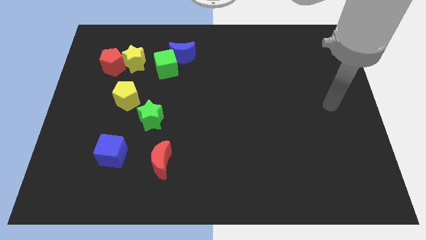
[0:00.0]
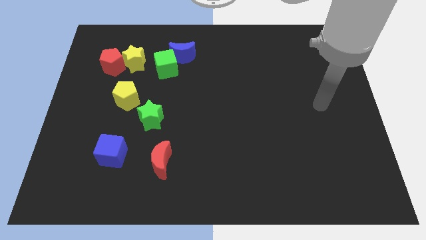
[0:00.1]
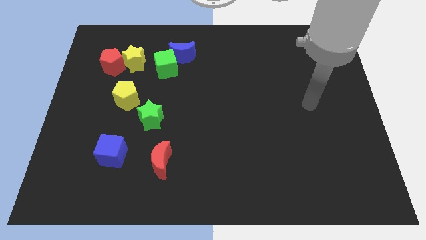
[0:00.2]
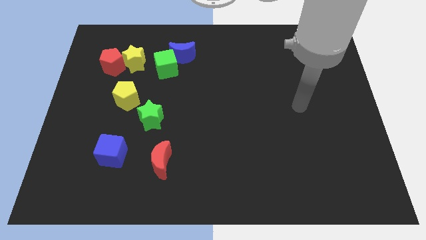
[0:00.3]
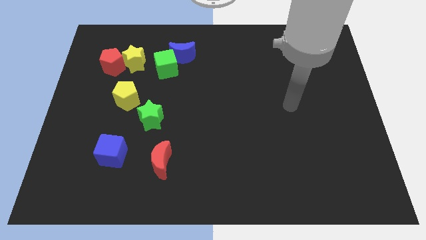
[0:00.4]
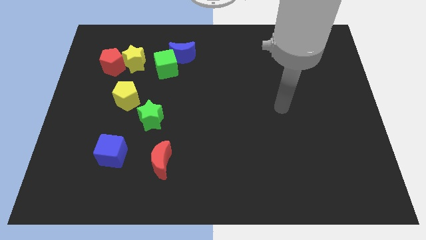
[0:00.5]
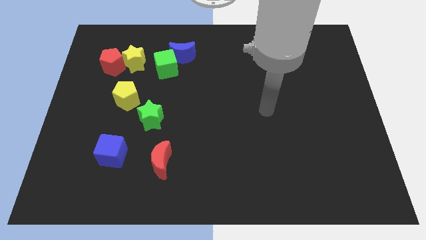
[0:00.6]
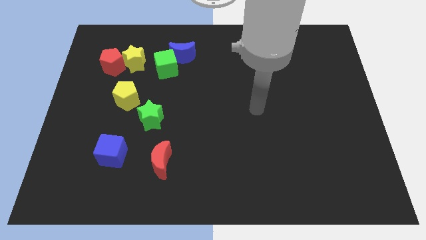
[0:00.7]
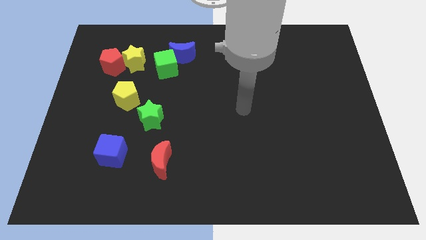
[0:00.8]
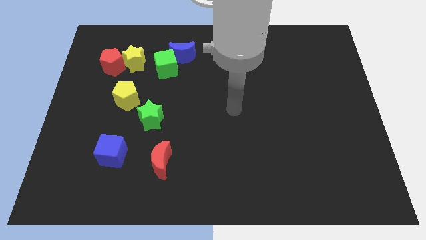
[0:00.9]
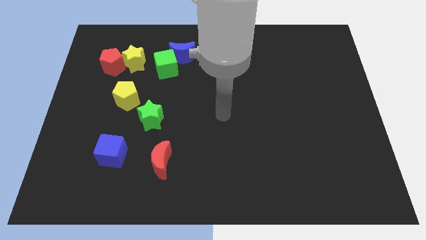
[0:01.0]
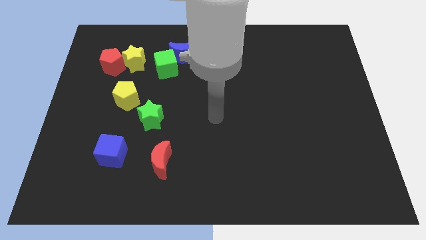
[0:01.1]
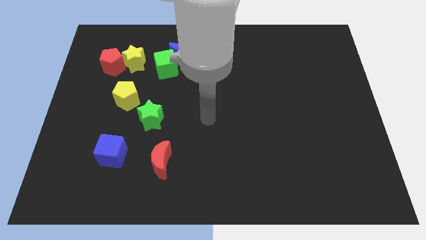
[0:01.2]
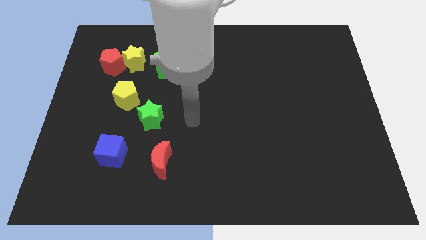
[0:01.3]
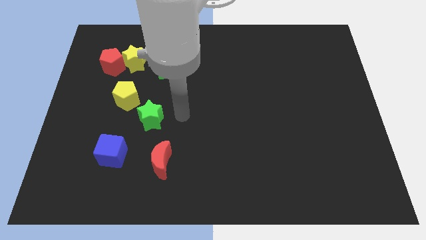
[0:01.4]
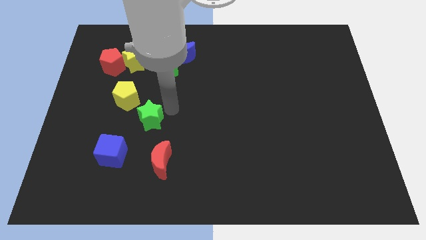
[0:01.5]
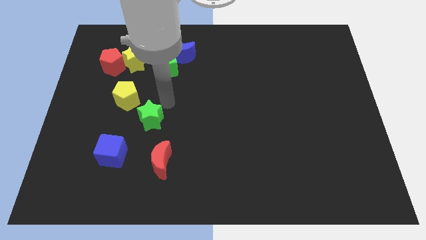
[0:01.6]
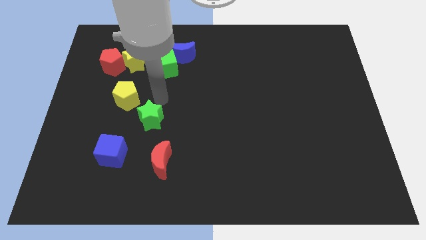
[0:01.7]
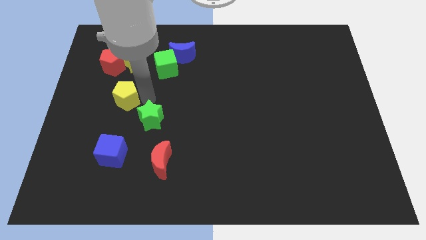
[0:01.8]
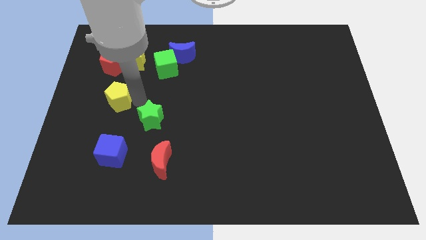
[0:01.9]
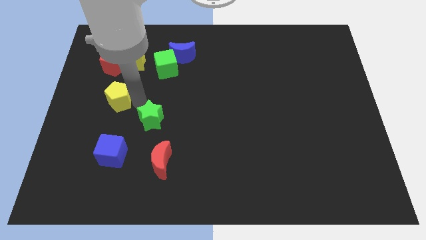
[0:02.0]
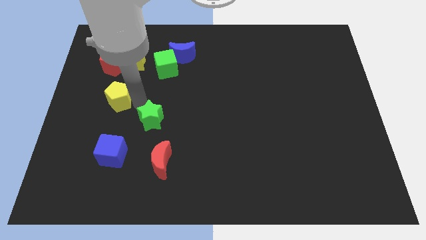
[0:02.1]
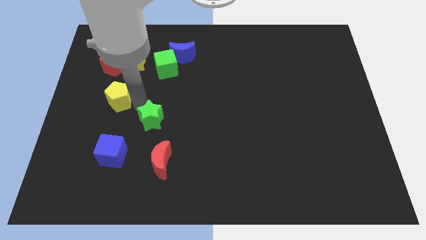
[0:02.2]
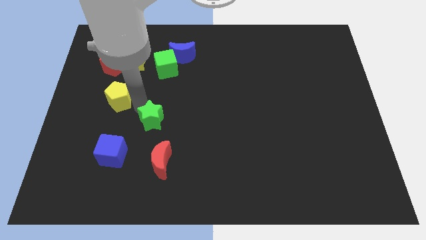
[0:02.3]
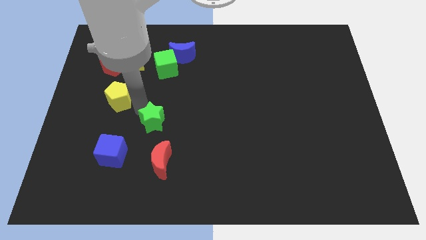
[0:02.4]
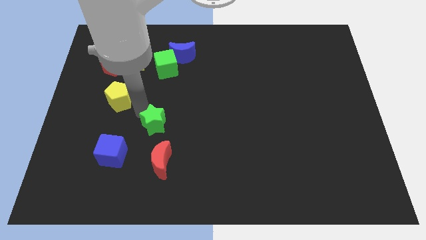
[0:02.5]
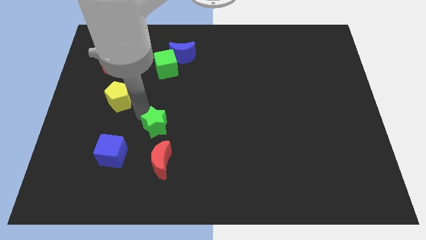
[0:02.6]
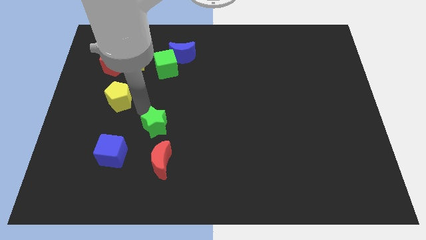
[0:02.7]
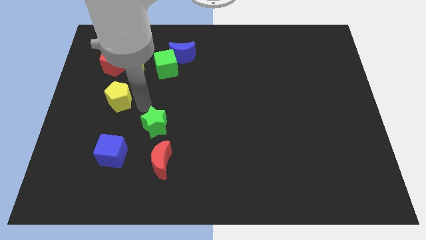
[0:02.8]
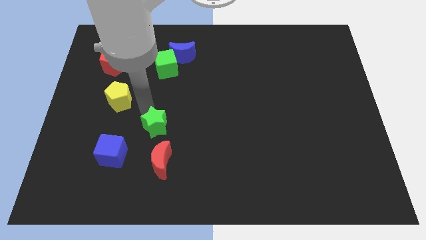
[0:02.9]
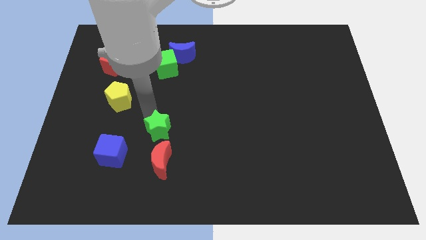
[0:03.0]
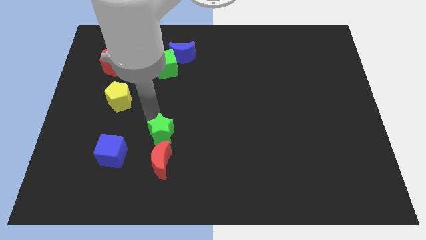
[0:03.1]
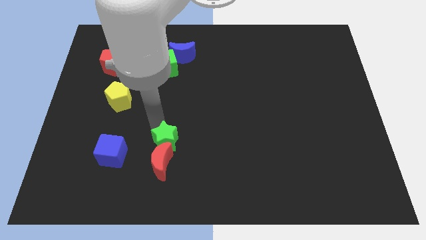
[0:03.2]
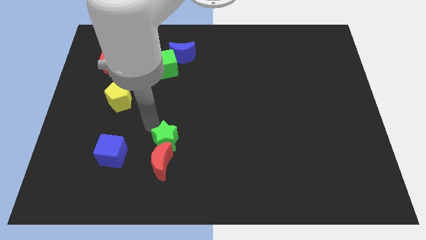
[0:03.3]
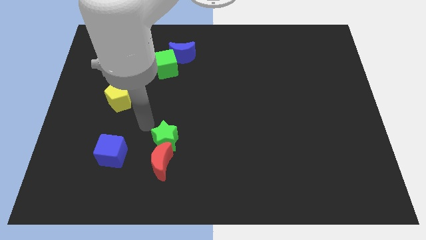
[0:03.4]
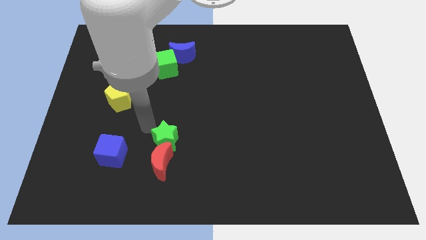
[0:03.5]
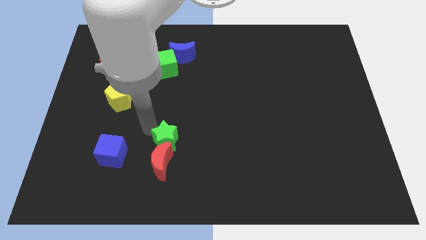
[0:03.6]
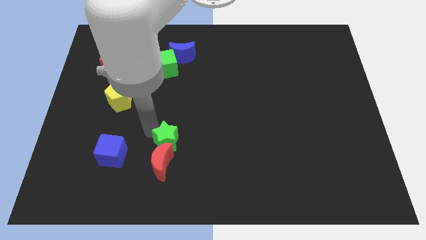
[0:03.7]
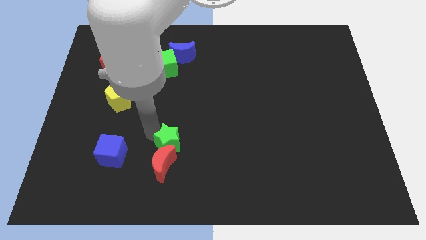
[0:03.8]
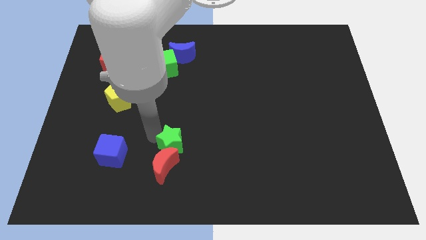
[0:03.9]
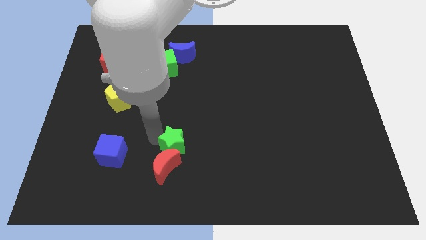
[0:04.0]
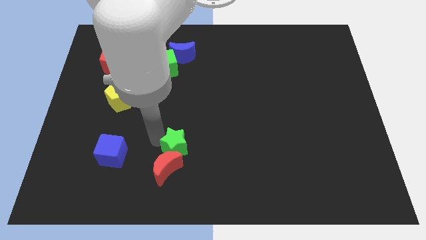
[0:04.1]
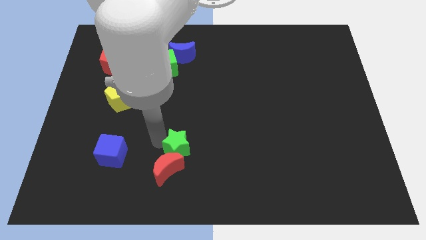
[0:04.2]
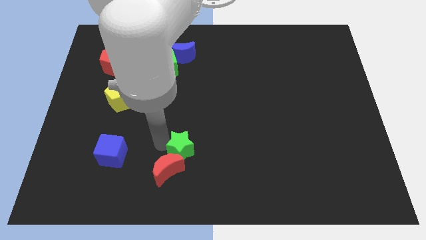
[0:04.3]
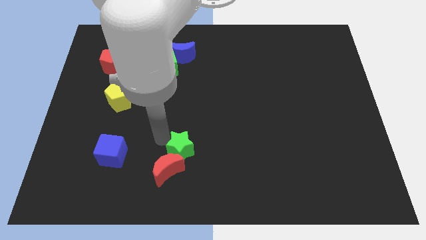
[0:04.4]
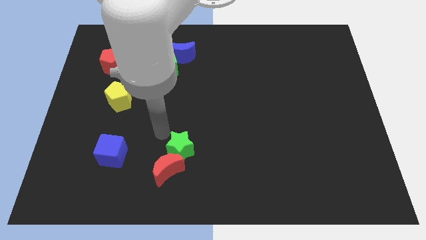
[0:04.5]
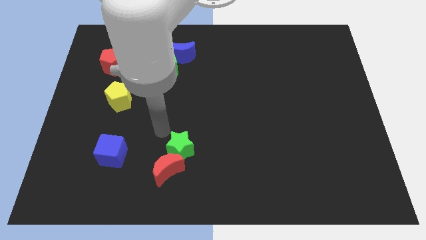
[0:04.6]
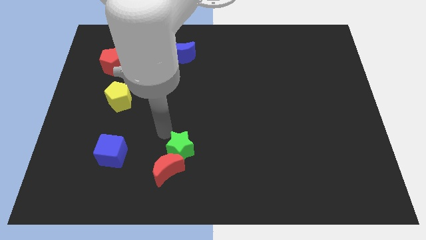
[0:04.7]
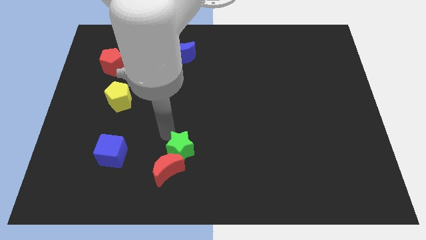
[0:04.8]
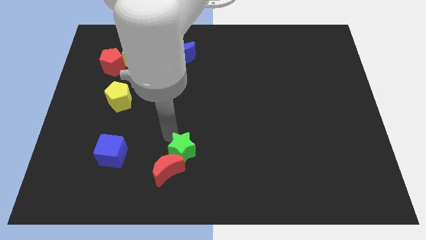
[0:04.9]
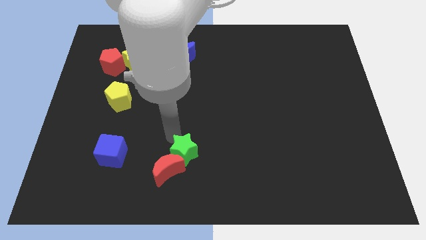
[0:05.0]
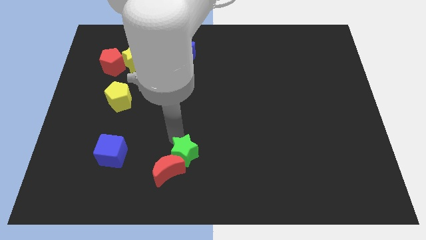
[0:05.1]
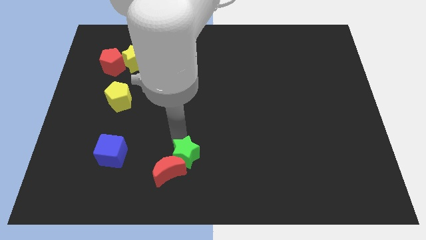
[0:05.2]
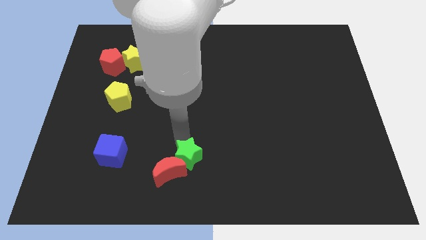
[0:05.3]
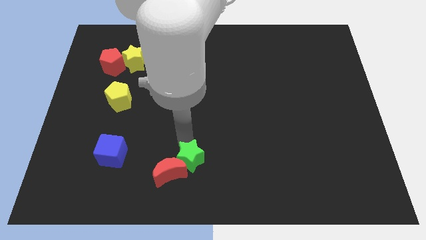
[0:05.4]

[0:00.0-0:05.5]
move the green star to the bottom

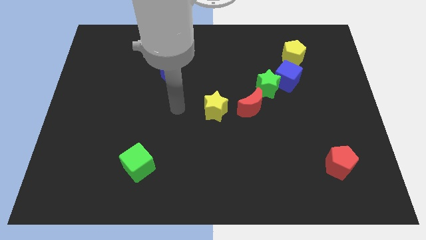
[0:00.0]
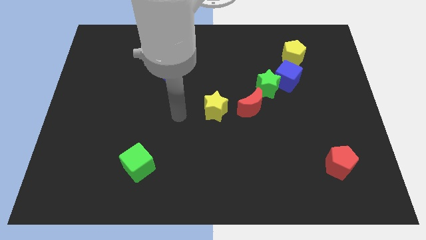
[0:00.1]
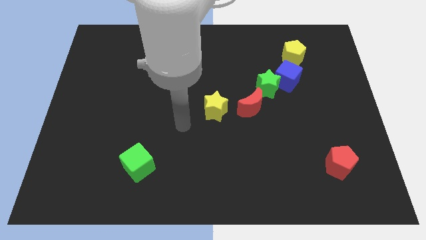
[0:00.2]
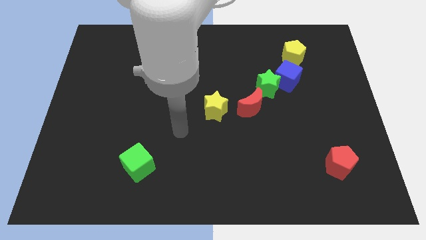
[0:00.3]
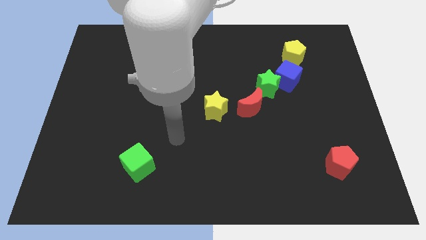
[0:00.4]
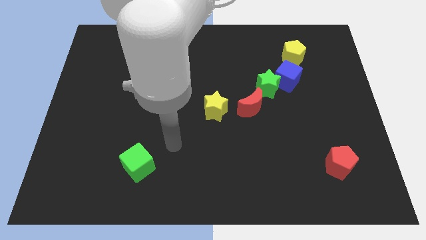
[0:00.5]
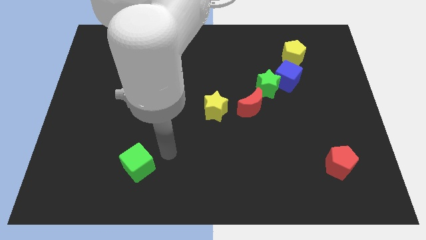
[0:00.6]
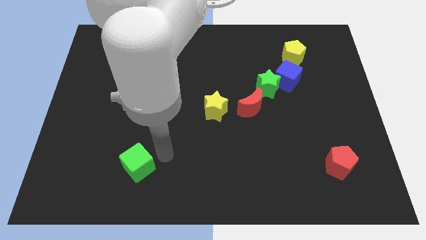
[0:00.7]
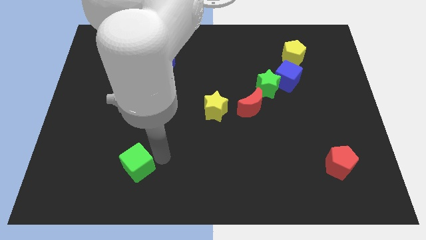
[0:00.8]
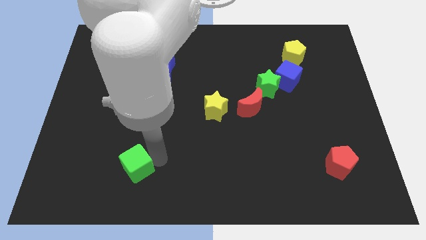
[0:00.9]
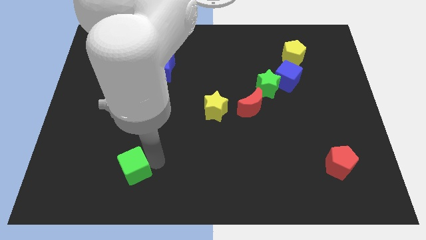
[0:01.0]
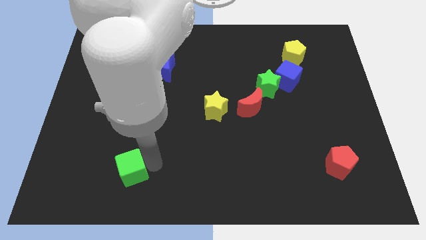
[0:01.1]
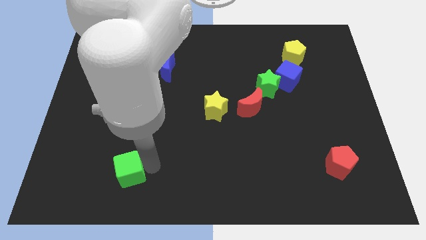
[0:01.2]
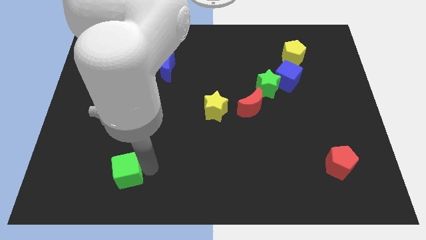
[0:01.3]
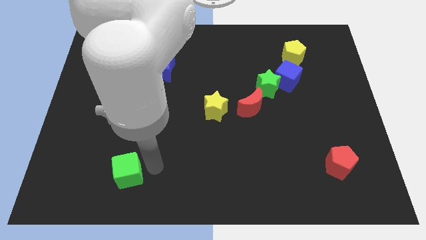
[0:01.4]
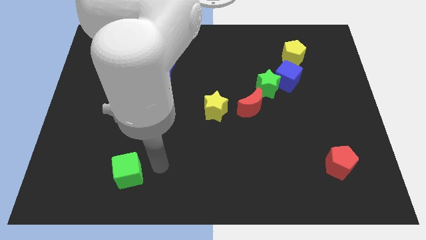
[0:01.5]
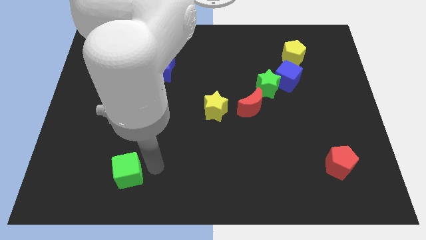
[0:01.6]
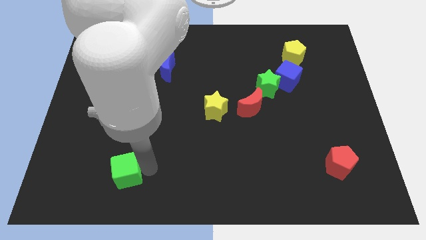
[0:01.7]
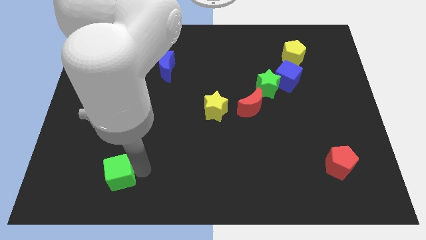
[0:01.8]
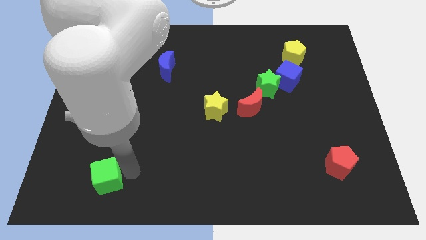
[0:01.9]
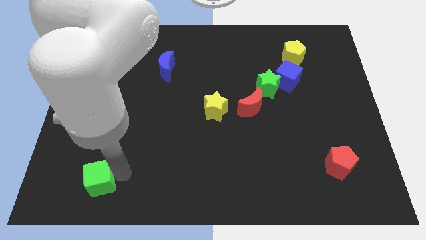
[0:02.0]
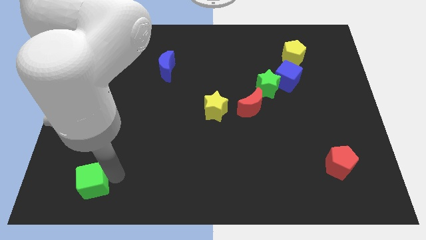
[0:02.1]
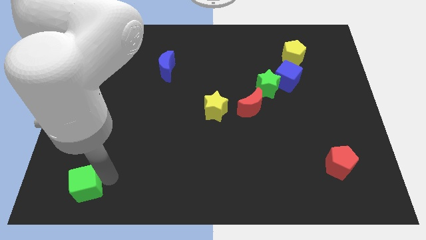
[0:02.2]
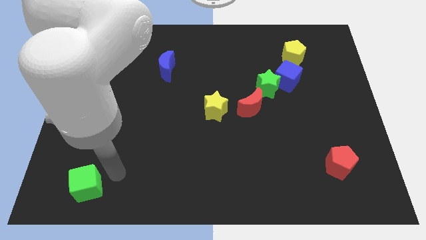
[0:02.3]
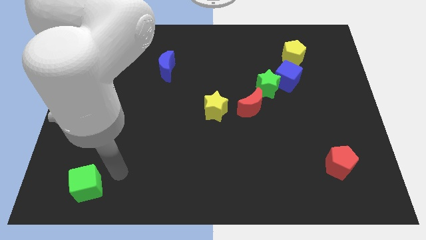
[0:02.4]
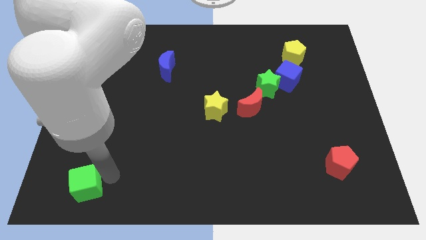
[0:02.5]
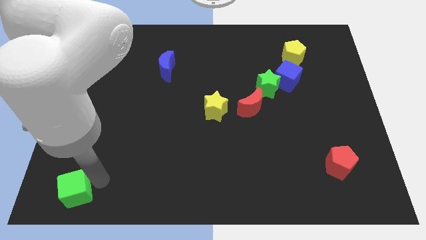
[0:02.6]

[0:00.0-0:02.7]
move the green cube to the bottom left corner
